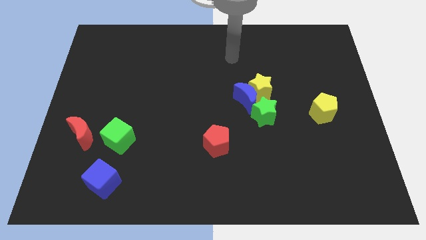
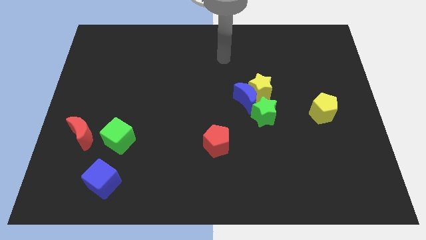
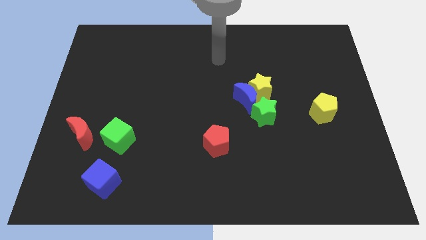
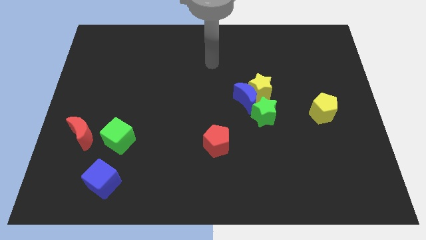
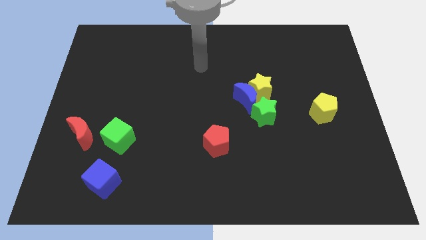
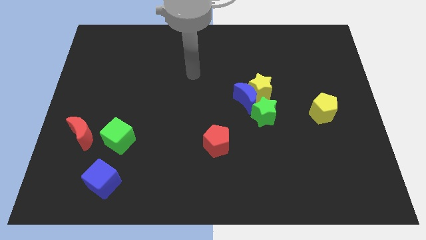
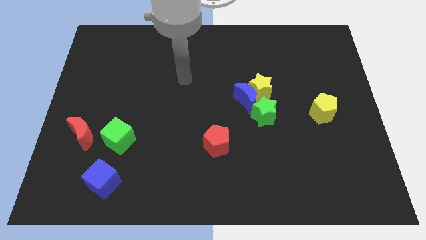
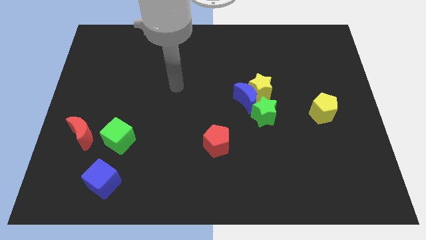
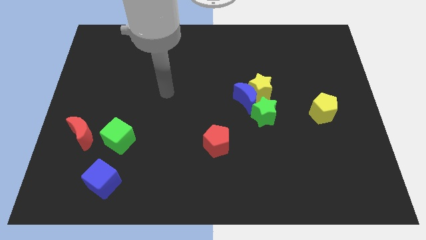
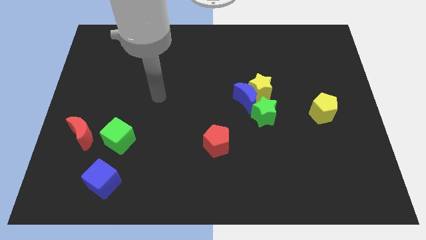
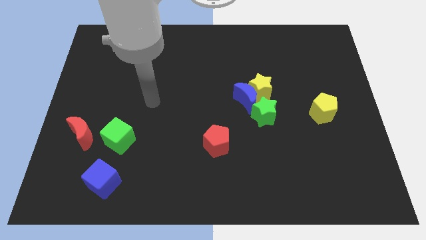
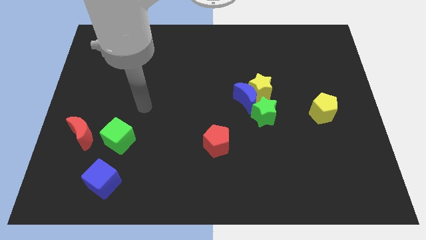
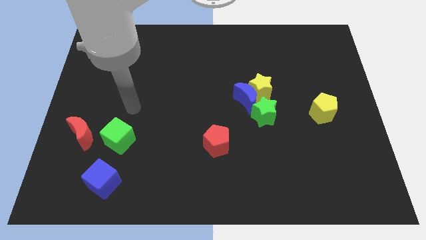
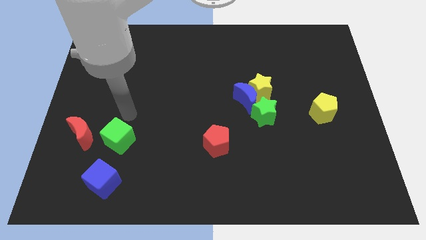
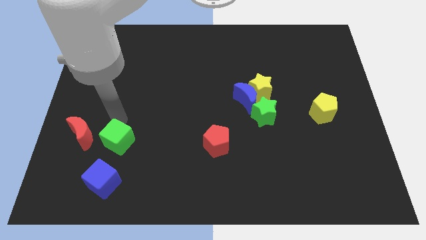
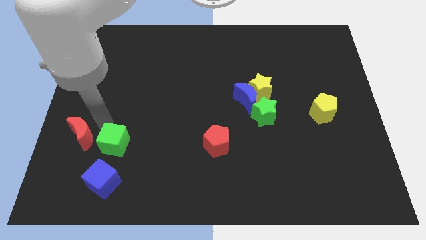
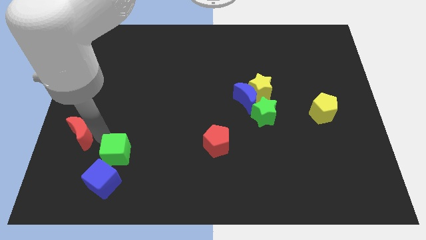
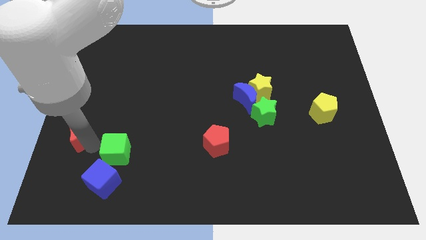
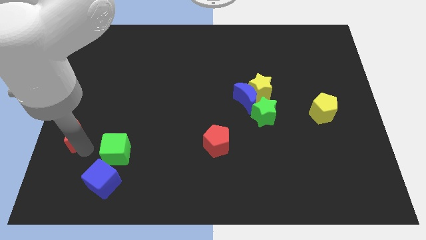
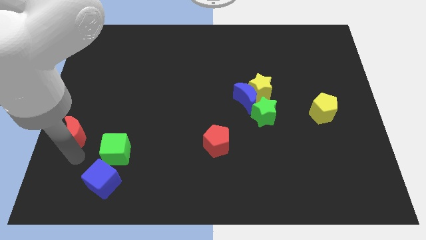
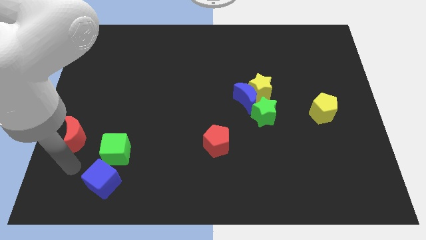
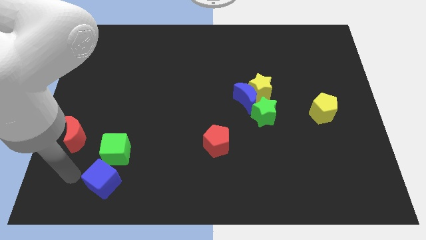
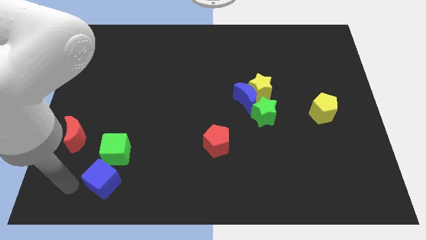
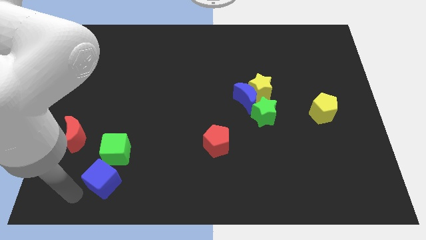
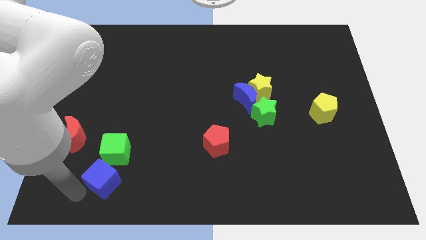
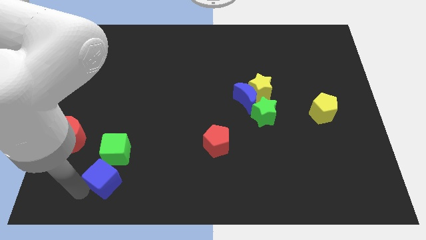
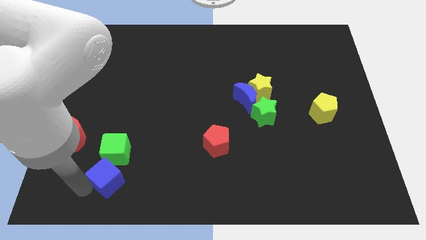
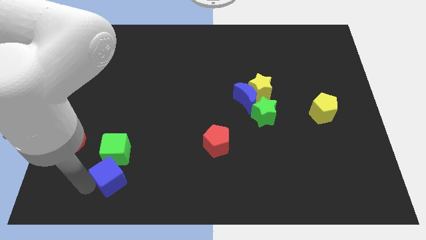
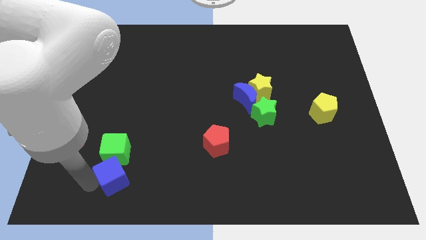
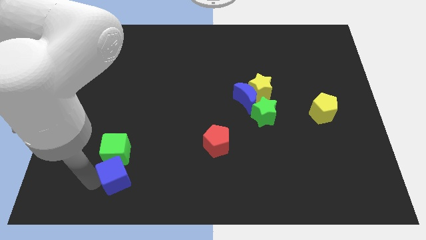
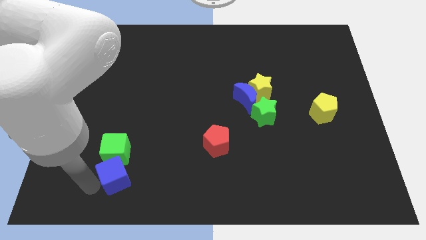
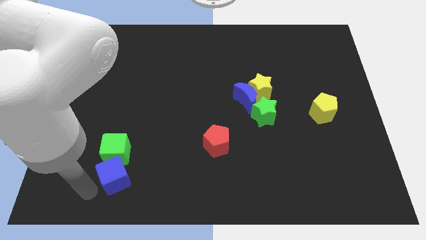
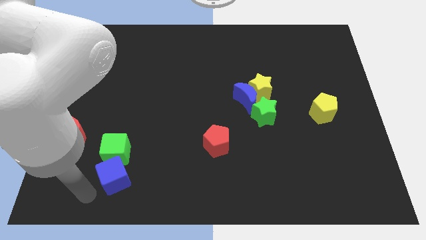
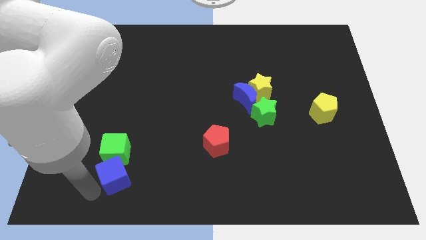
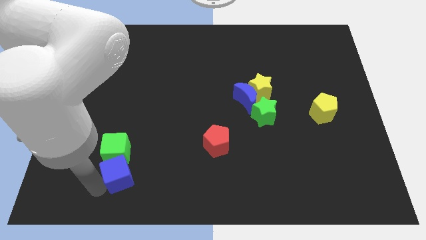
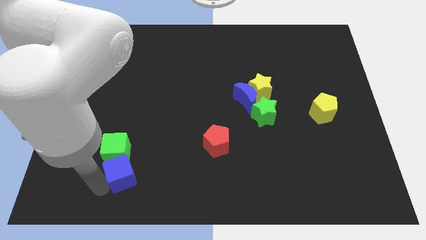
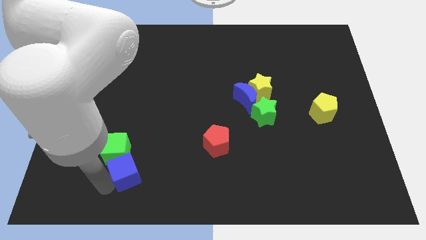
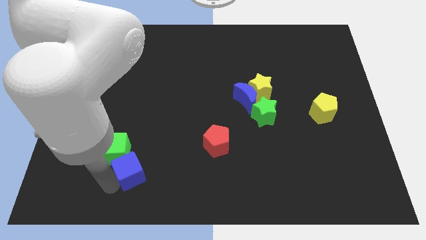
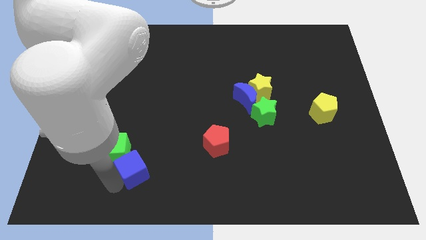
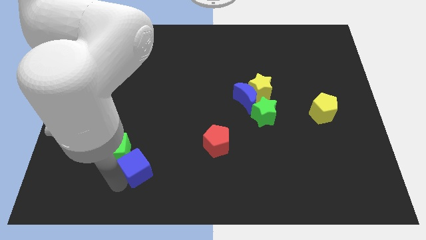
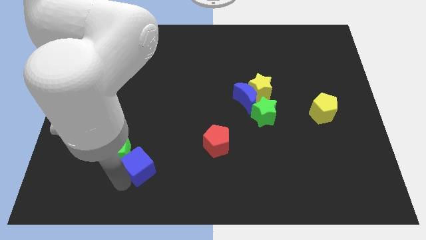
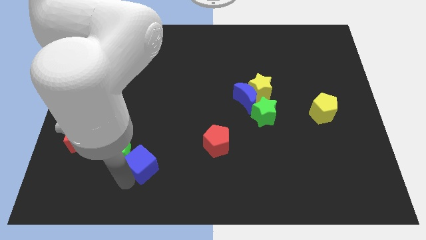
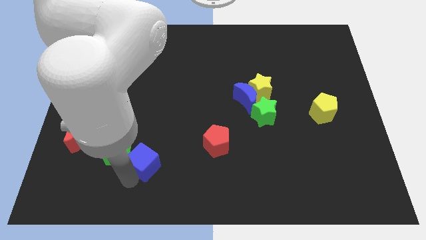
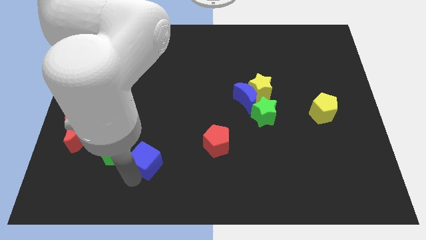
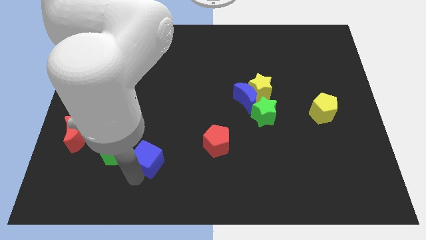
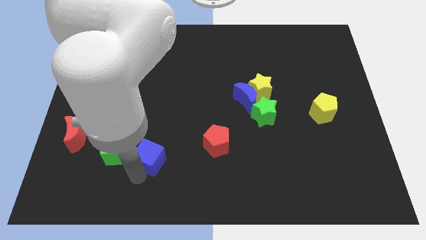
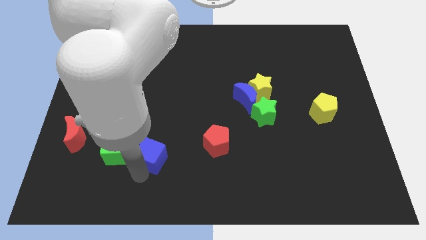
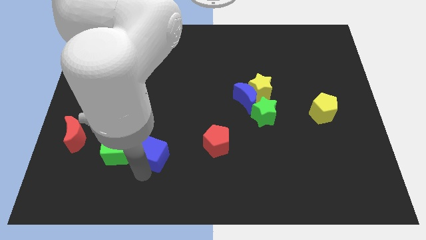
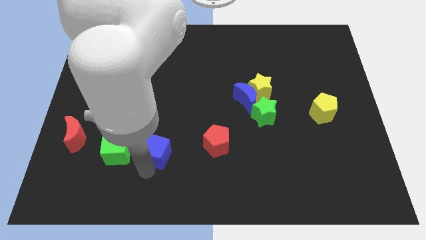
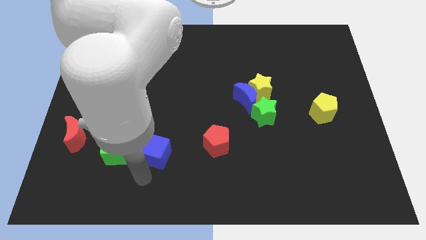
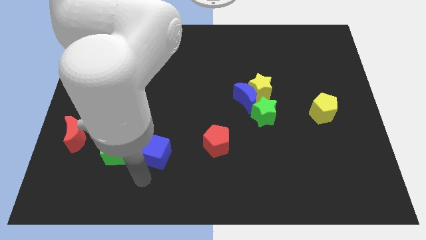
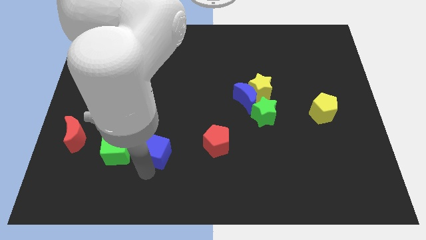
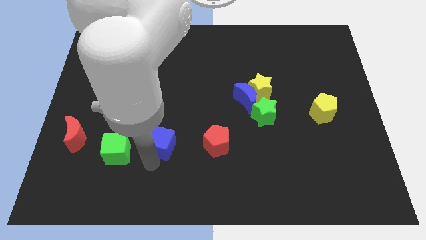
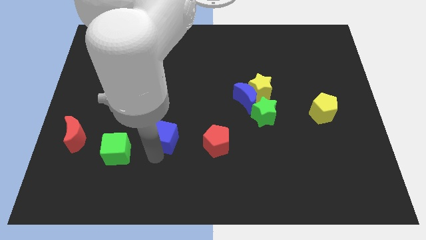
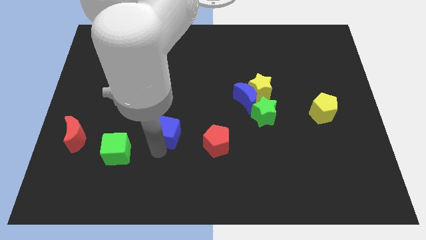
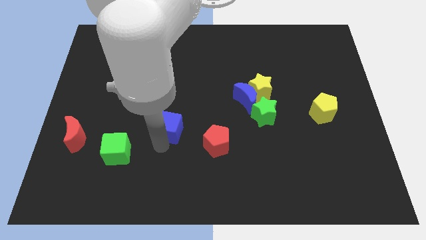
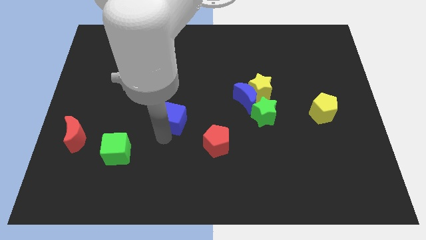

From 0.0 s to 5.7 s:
push the blue cube to the middle
